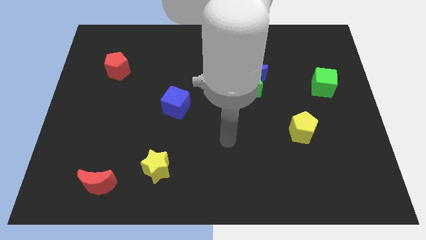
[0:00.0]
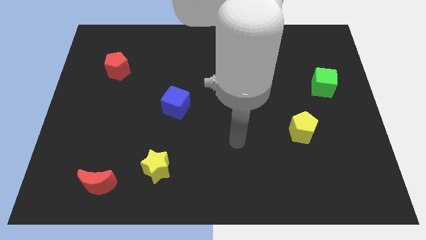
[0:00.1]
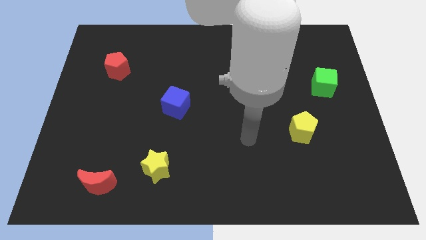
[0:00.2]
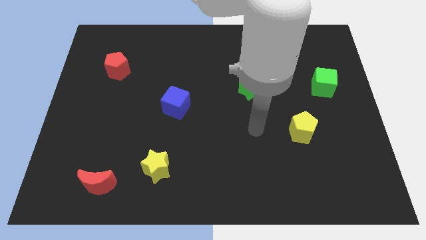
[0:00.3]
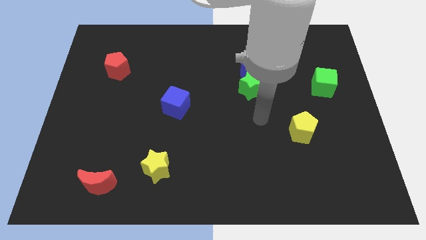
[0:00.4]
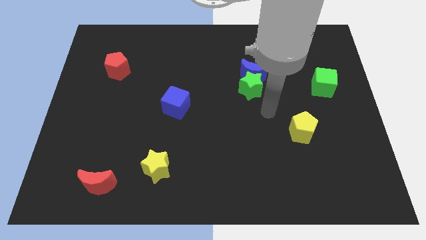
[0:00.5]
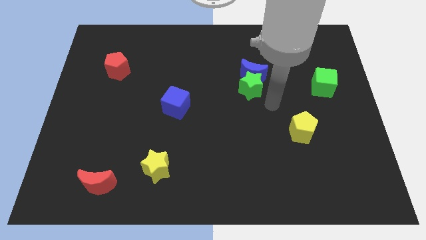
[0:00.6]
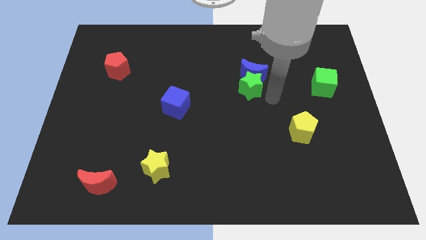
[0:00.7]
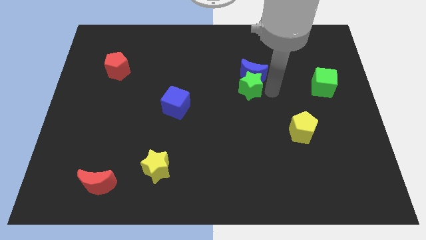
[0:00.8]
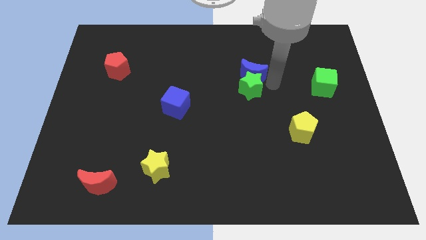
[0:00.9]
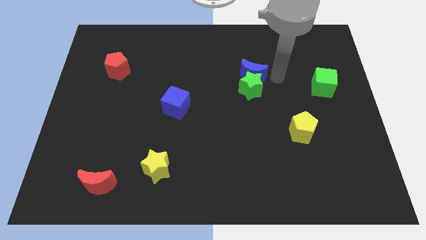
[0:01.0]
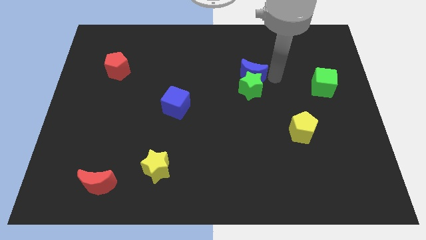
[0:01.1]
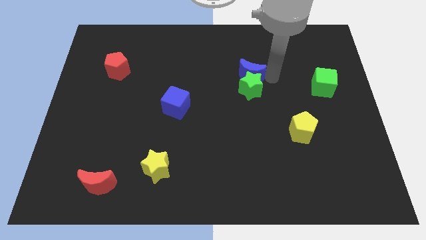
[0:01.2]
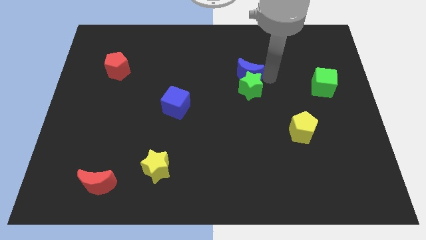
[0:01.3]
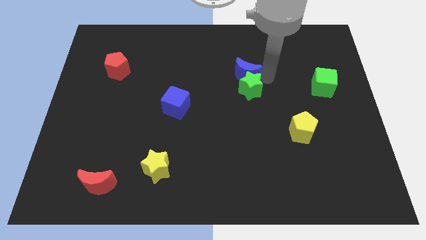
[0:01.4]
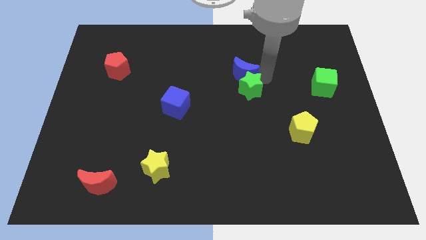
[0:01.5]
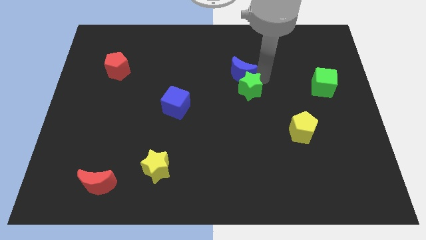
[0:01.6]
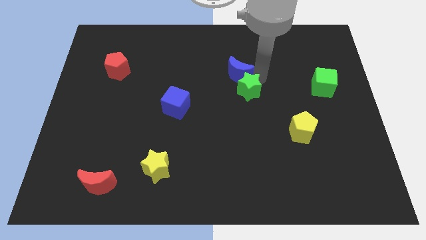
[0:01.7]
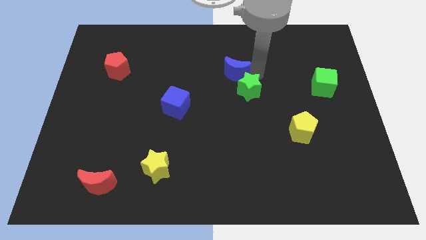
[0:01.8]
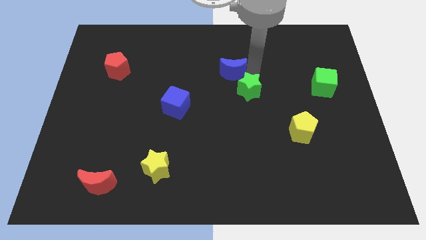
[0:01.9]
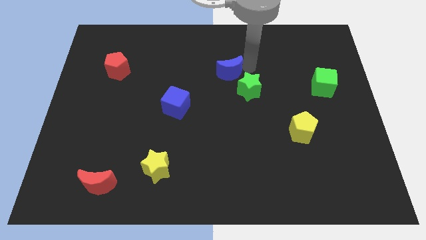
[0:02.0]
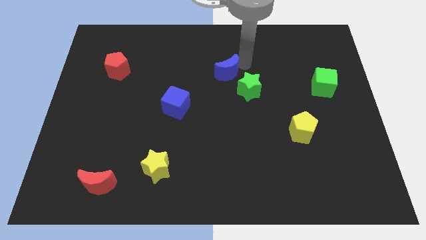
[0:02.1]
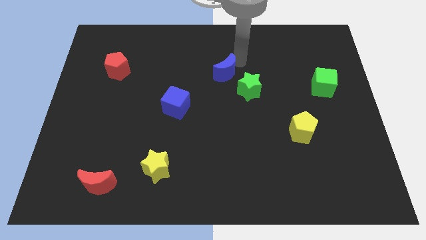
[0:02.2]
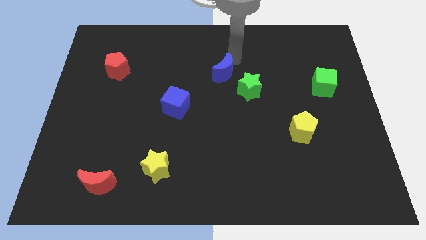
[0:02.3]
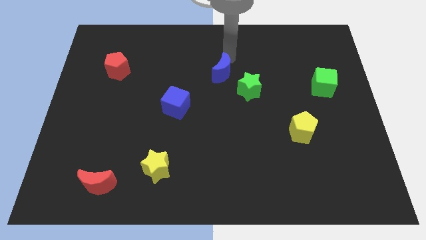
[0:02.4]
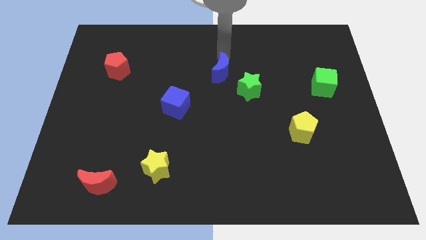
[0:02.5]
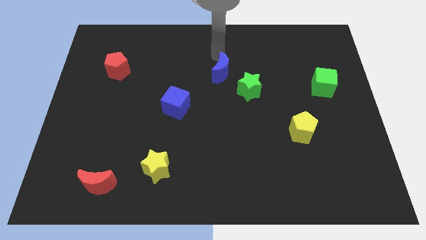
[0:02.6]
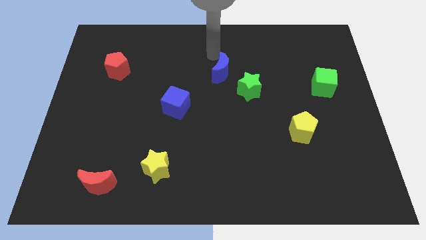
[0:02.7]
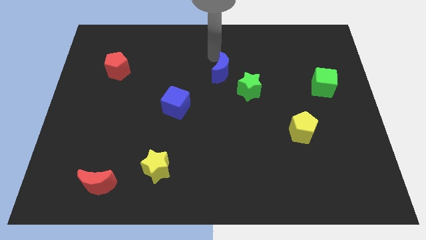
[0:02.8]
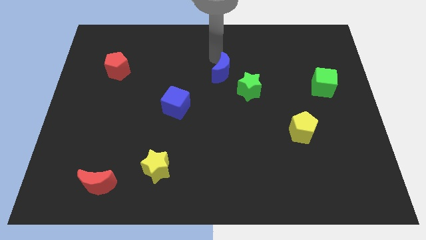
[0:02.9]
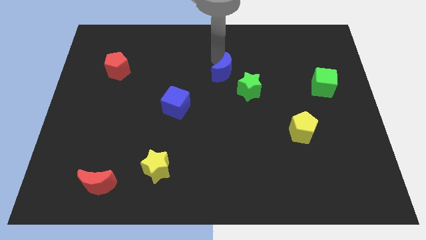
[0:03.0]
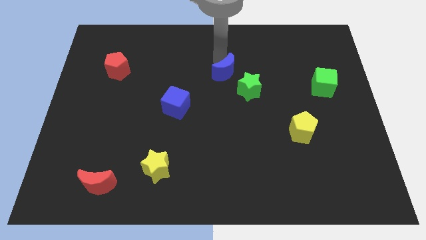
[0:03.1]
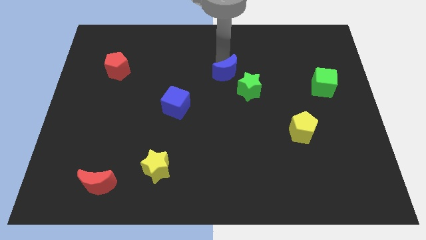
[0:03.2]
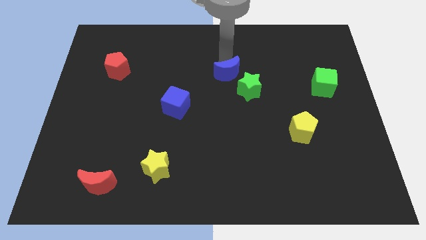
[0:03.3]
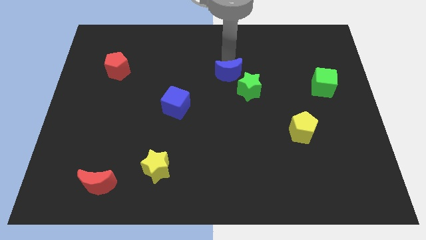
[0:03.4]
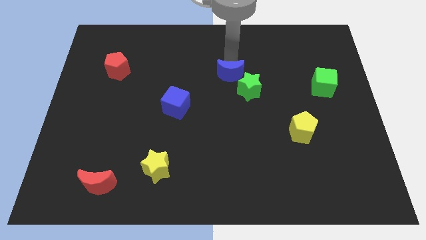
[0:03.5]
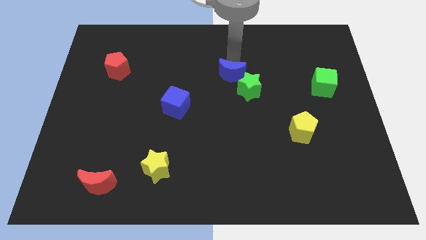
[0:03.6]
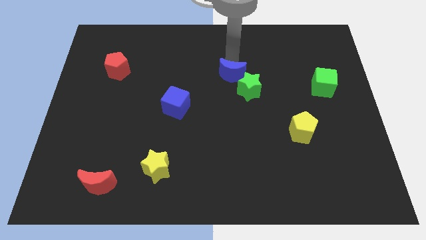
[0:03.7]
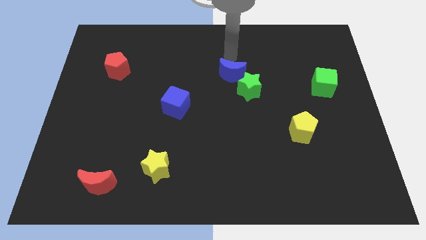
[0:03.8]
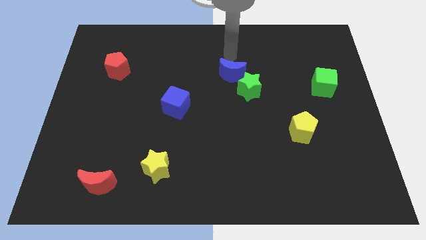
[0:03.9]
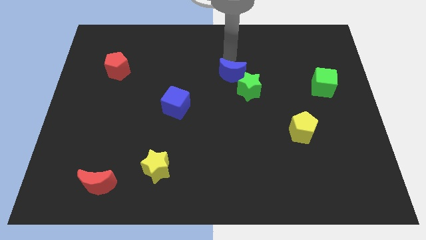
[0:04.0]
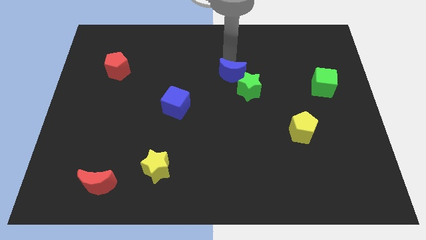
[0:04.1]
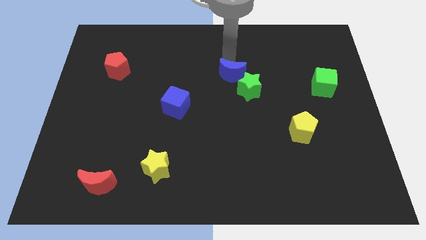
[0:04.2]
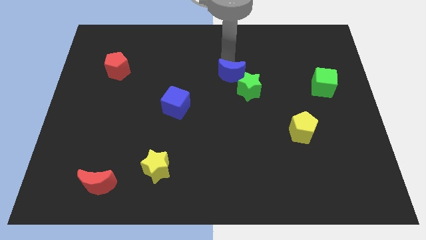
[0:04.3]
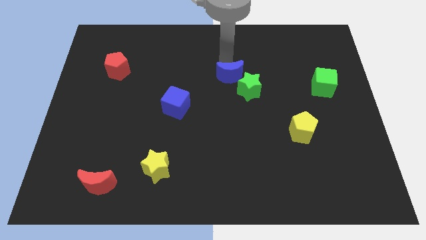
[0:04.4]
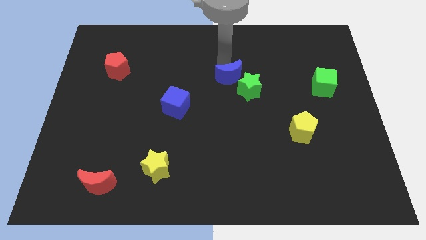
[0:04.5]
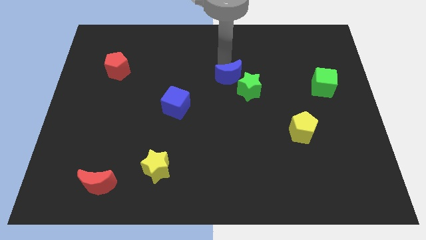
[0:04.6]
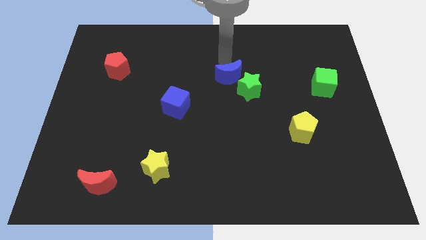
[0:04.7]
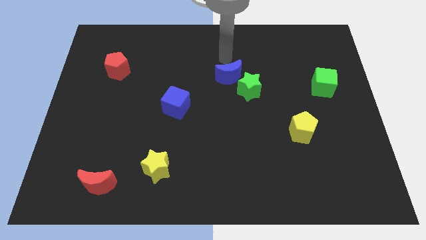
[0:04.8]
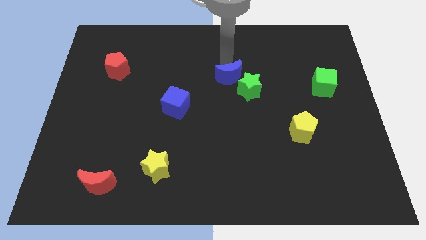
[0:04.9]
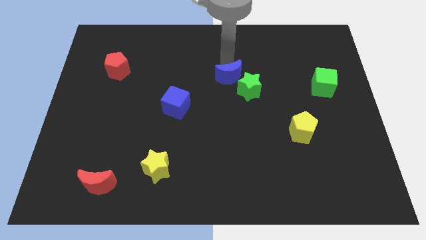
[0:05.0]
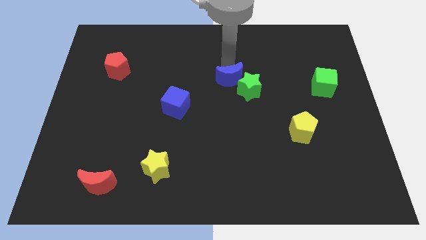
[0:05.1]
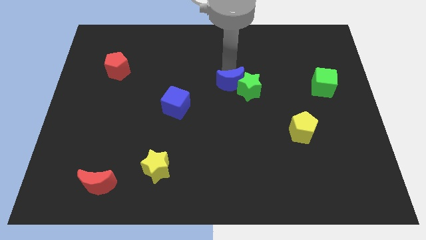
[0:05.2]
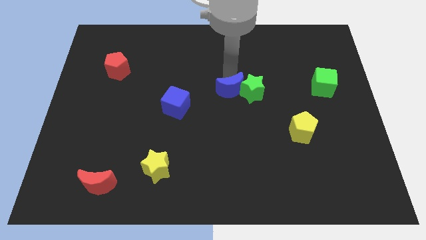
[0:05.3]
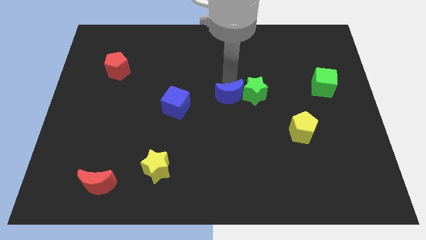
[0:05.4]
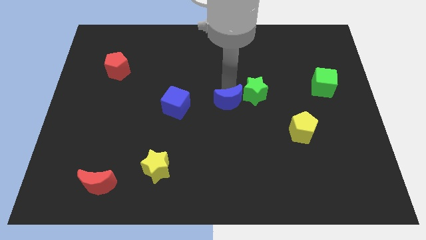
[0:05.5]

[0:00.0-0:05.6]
slightly move the blue moon down

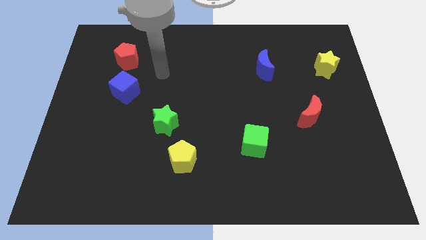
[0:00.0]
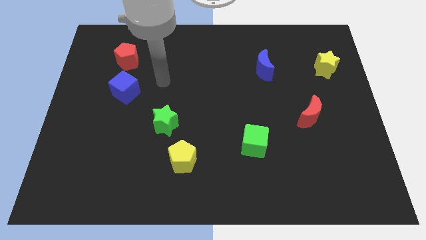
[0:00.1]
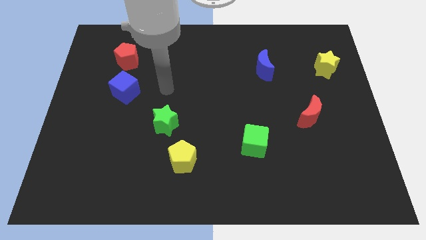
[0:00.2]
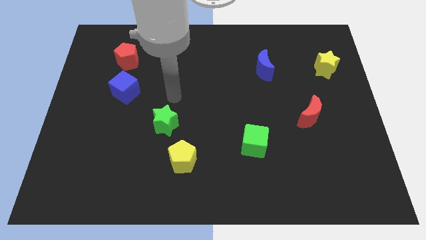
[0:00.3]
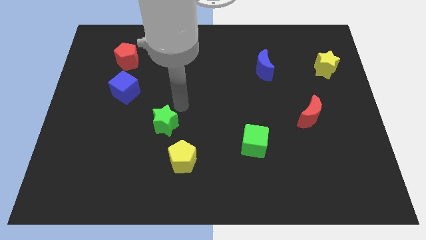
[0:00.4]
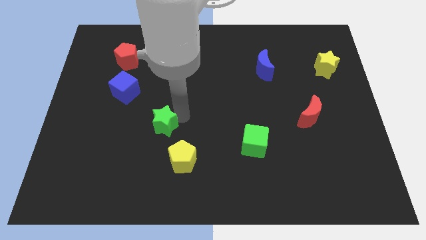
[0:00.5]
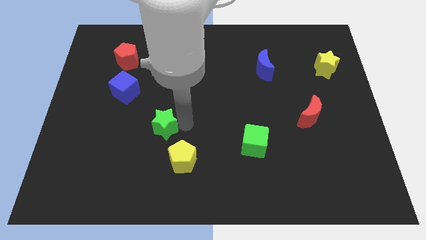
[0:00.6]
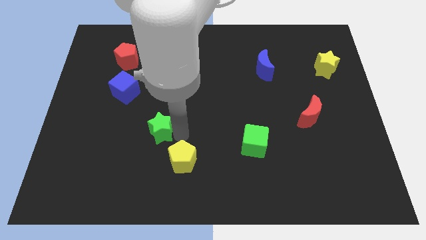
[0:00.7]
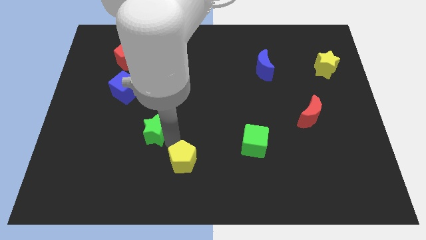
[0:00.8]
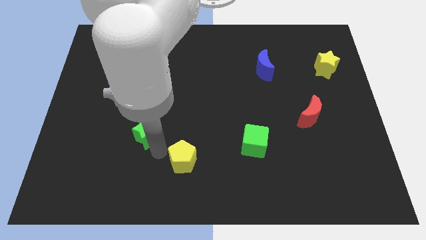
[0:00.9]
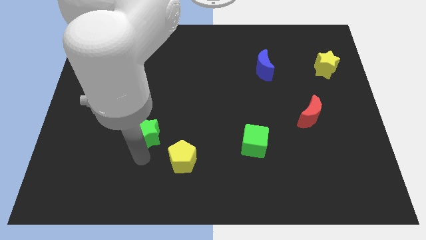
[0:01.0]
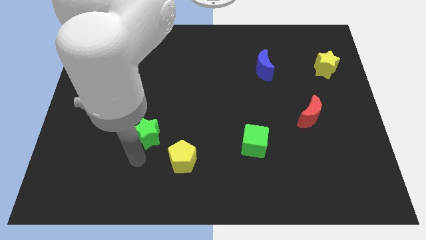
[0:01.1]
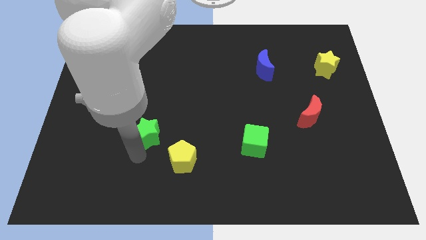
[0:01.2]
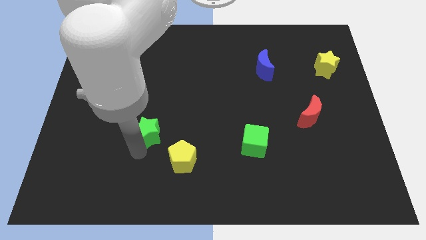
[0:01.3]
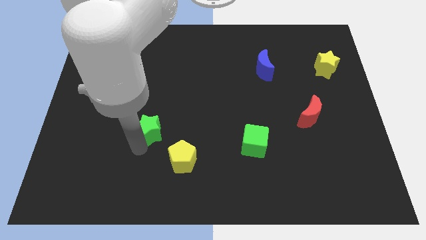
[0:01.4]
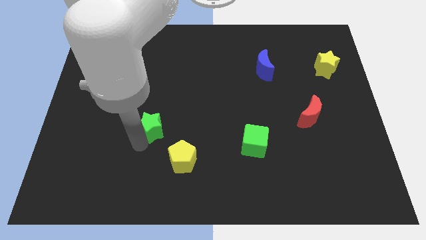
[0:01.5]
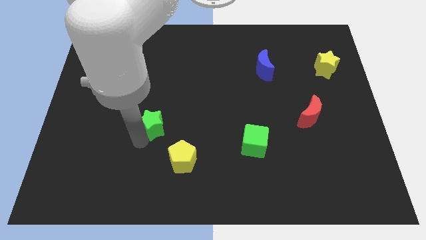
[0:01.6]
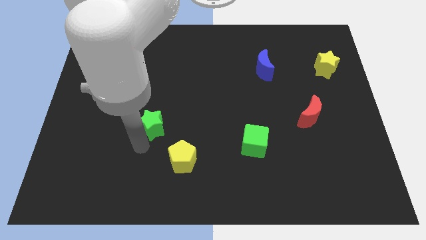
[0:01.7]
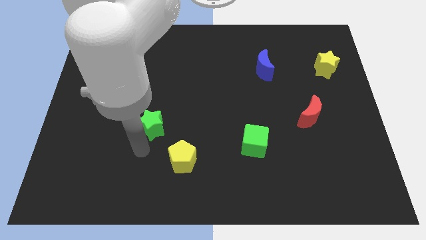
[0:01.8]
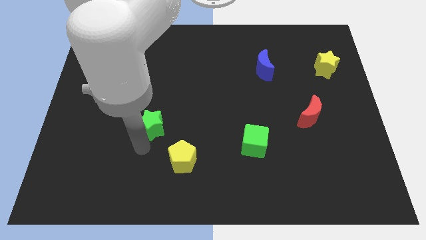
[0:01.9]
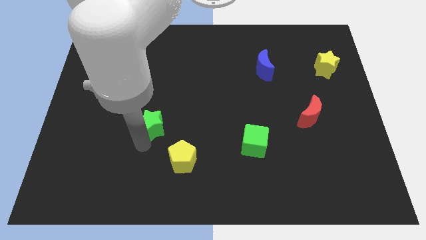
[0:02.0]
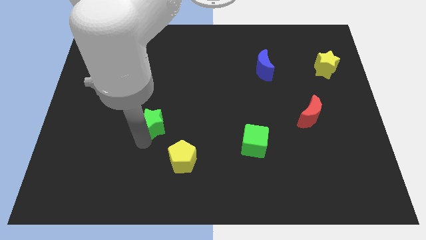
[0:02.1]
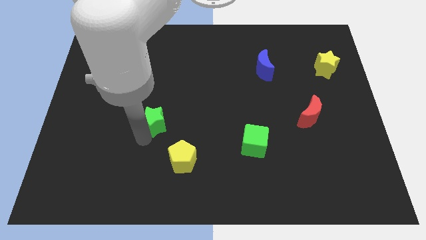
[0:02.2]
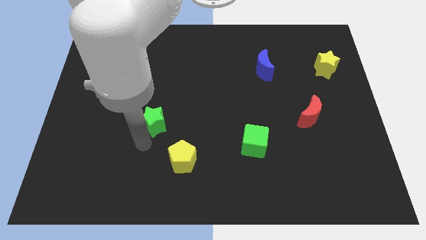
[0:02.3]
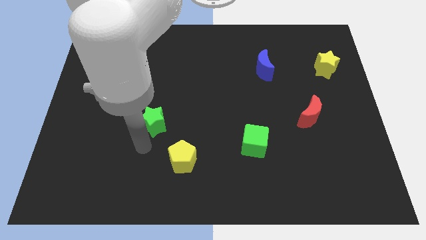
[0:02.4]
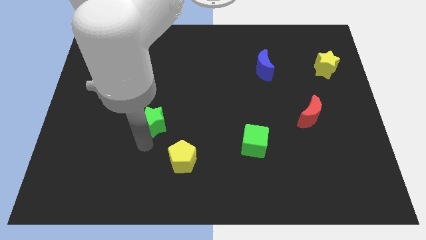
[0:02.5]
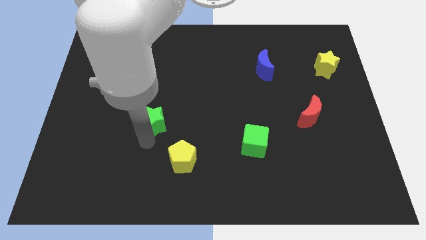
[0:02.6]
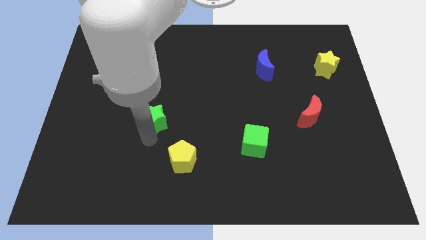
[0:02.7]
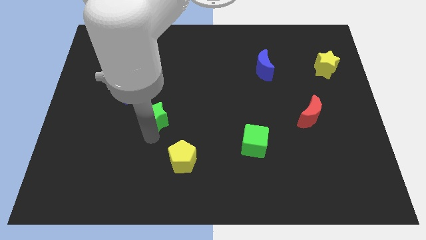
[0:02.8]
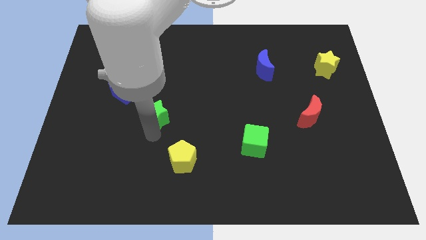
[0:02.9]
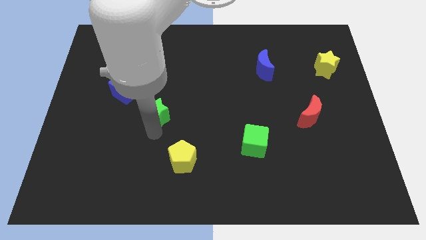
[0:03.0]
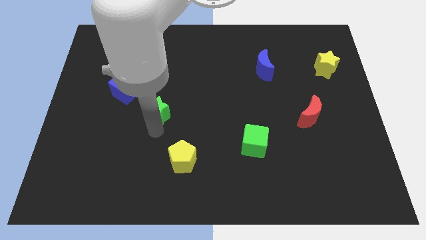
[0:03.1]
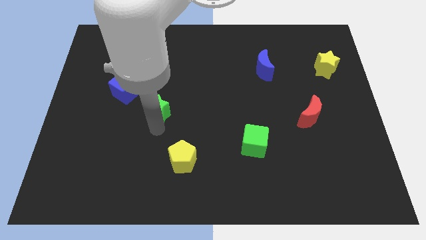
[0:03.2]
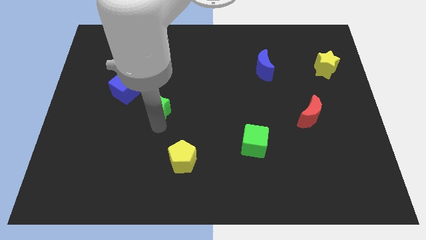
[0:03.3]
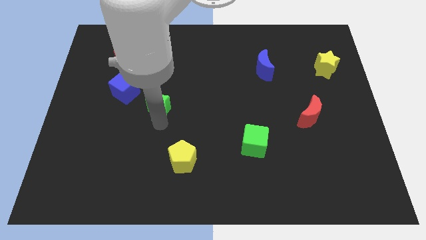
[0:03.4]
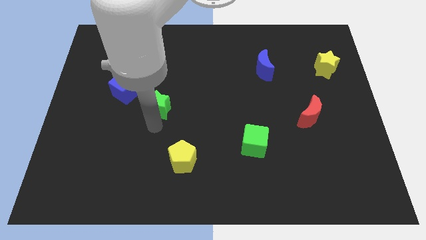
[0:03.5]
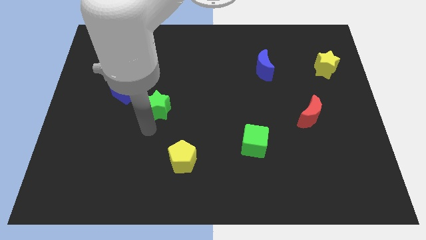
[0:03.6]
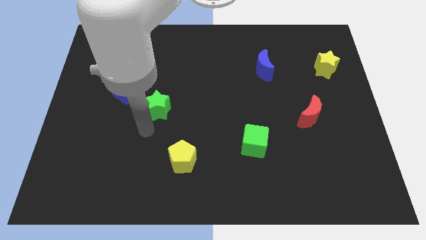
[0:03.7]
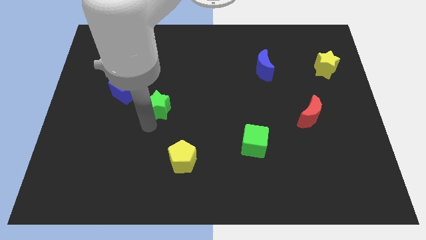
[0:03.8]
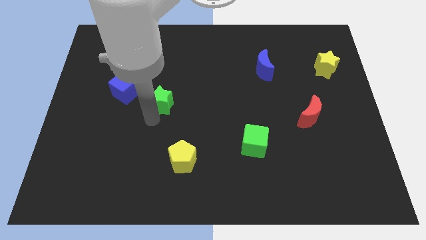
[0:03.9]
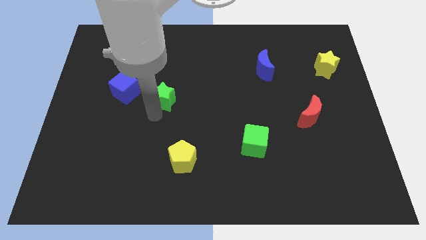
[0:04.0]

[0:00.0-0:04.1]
slightly move the green star up
